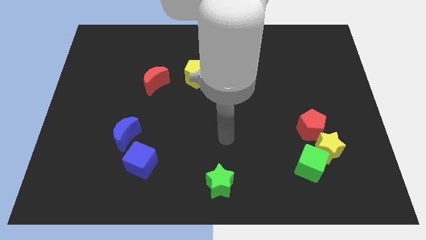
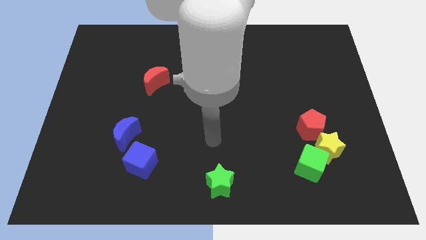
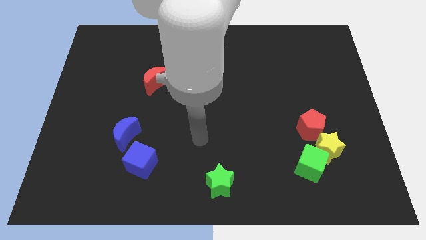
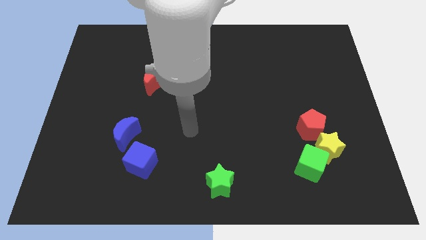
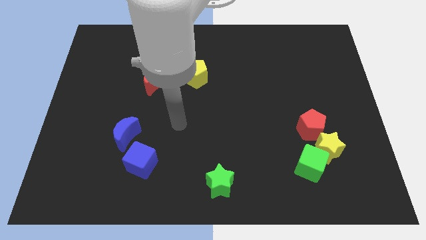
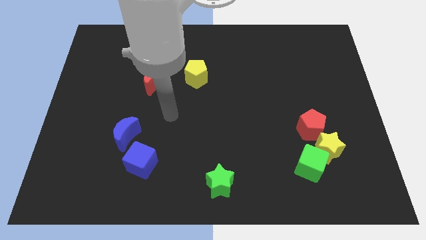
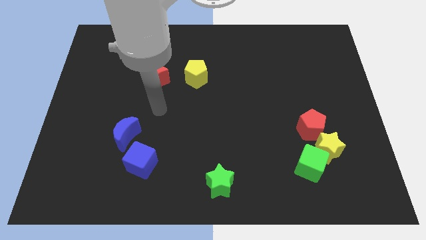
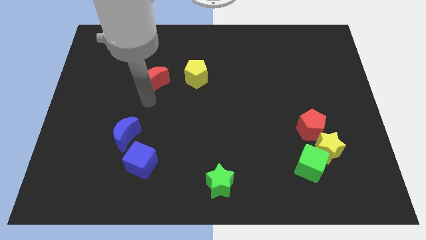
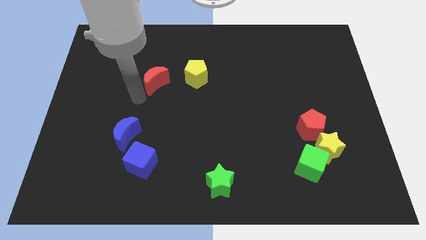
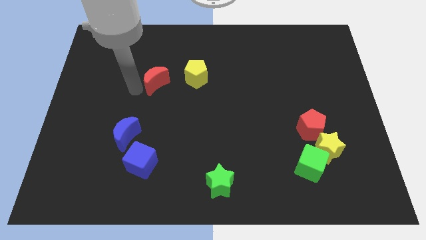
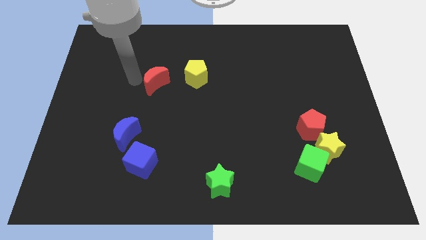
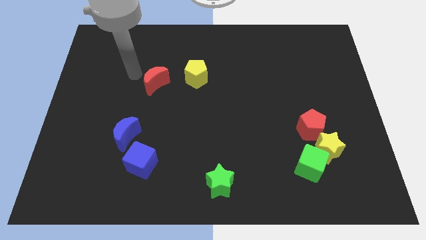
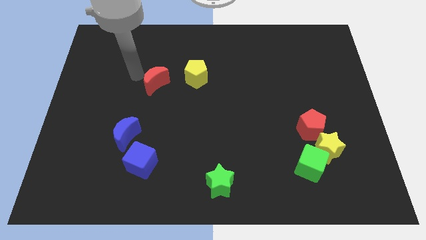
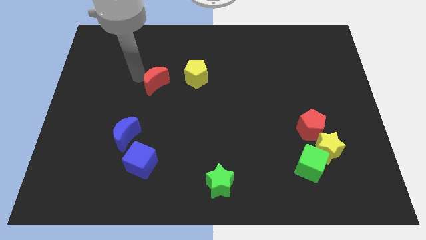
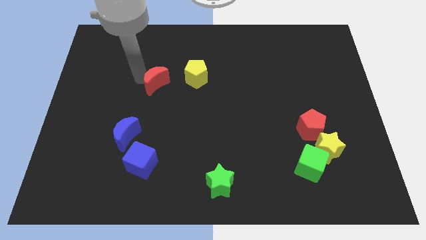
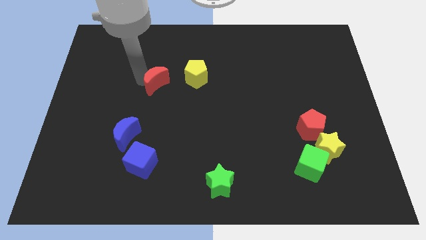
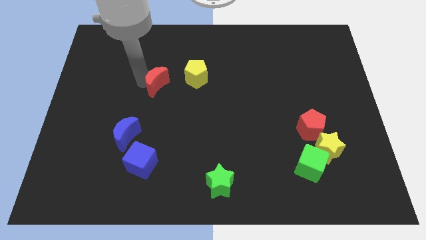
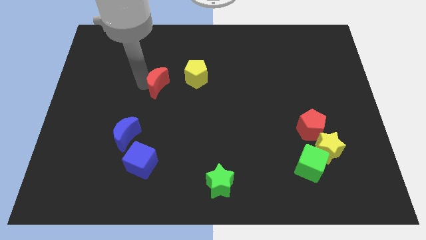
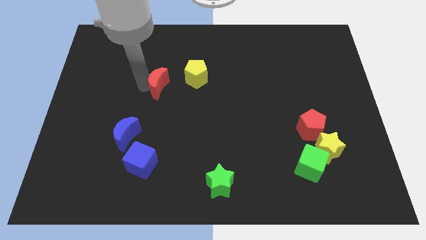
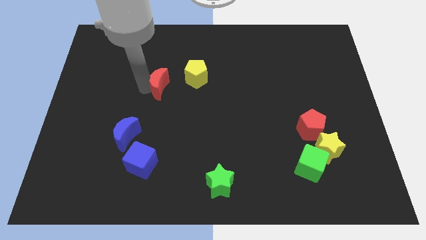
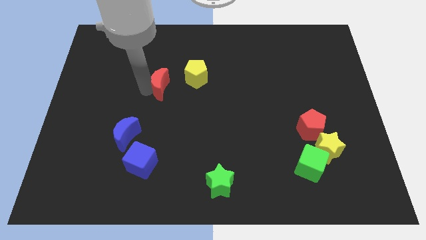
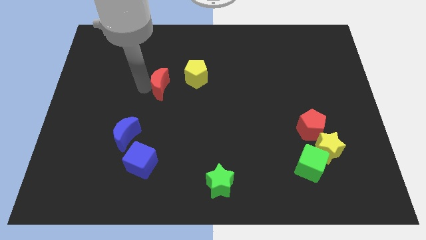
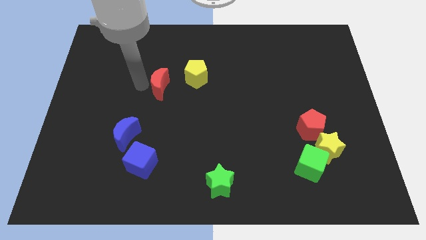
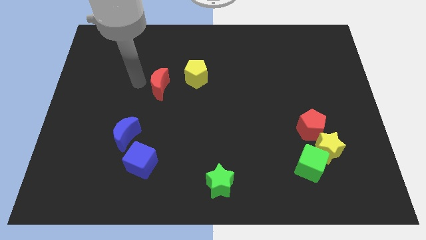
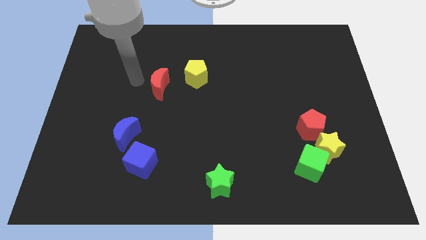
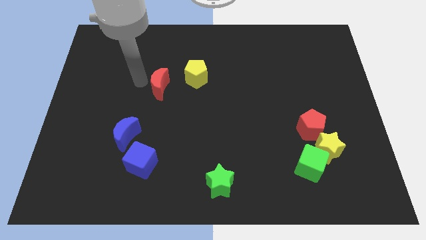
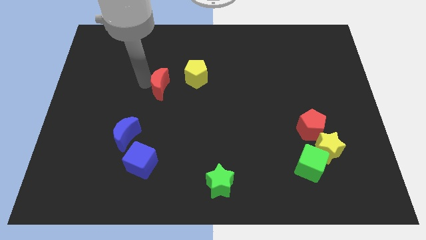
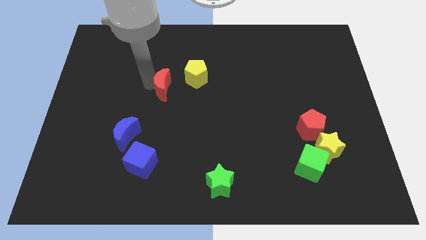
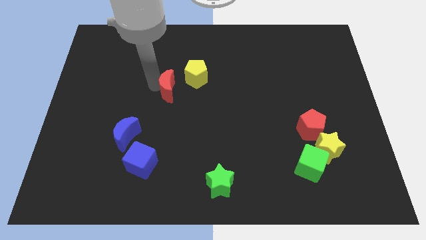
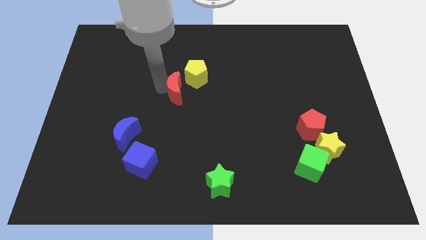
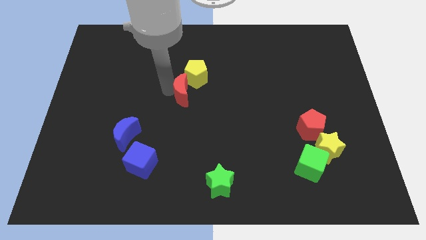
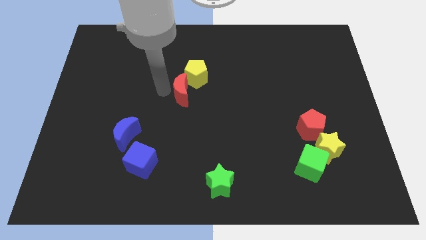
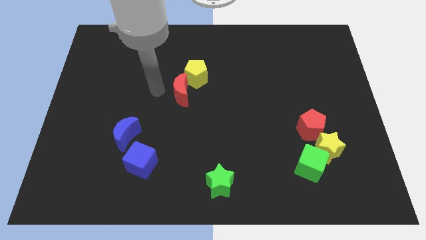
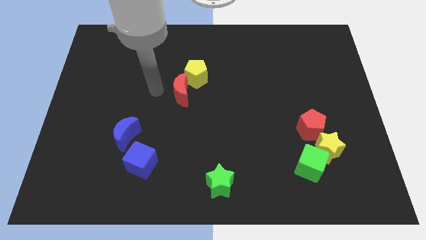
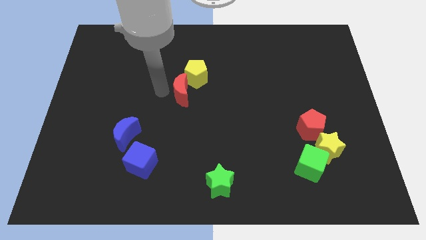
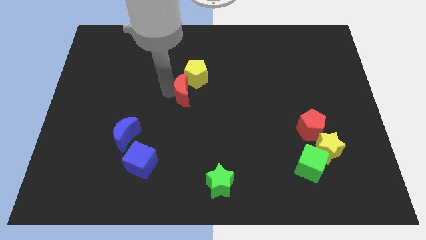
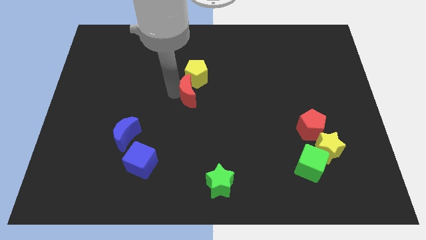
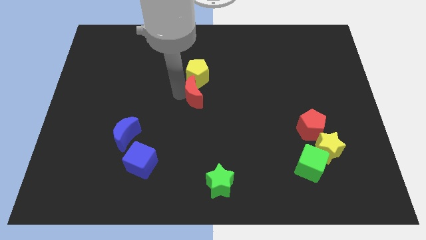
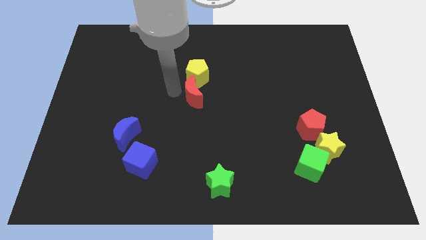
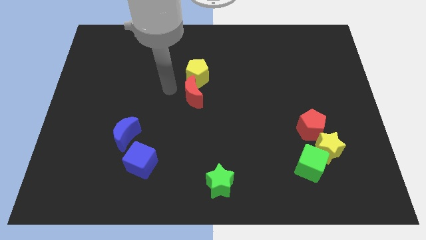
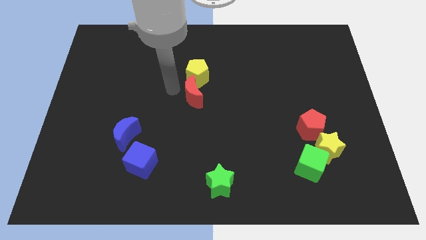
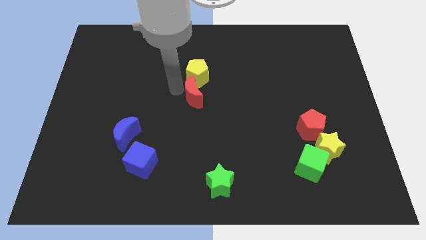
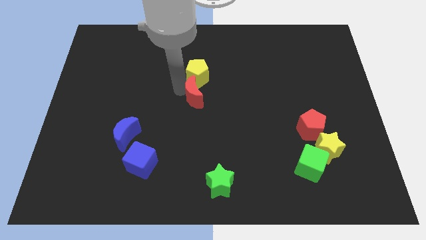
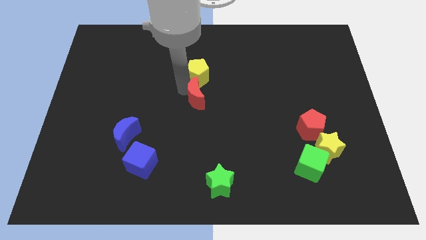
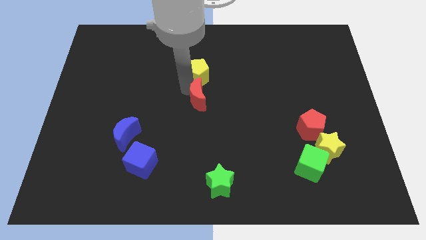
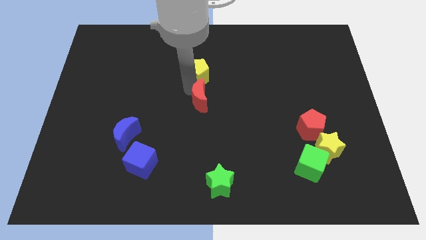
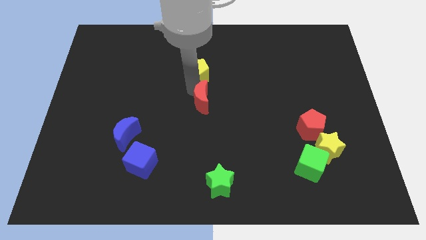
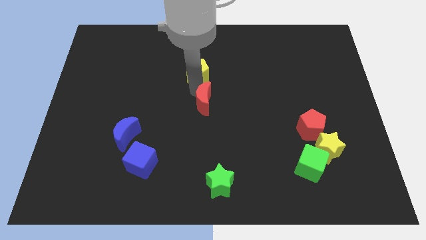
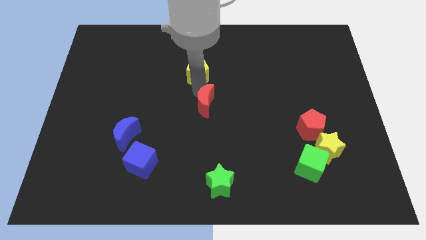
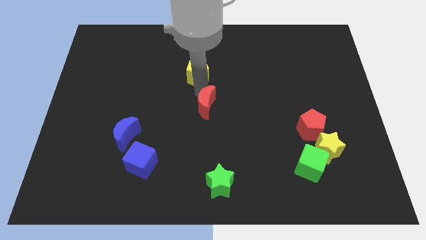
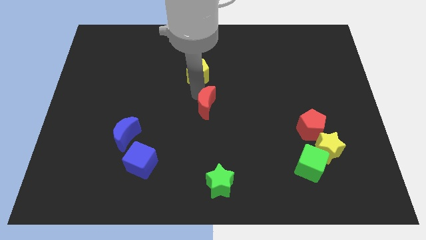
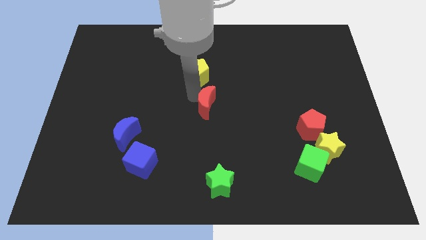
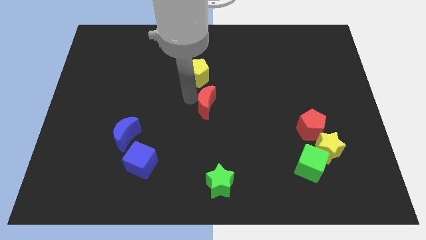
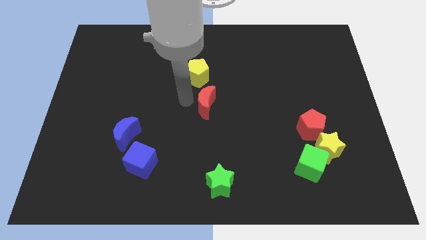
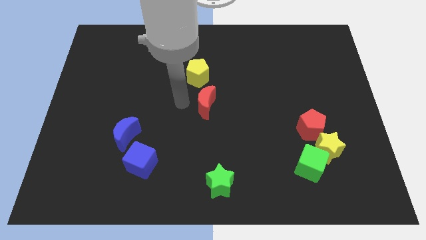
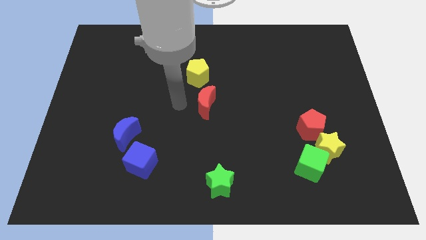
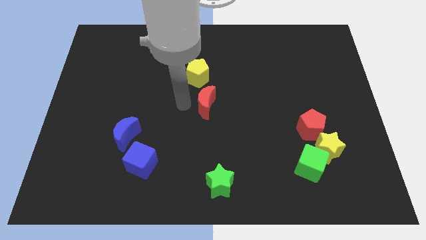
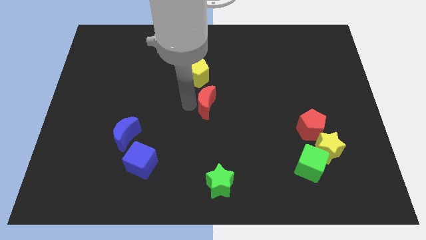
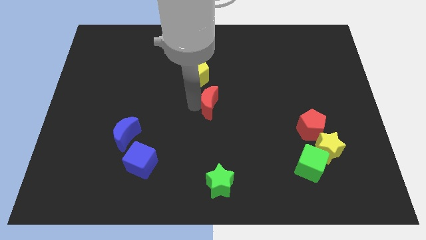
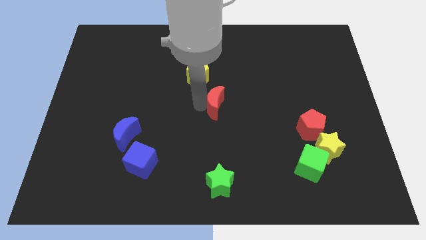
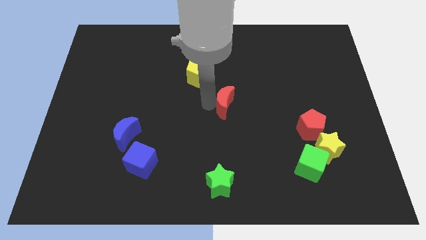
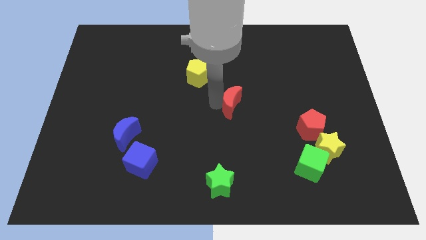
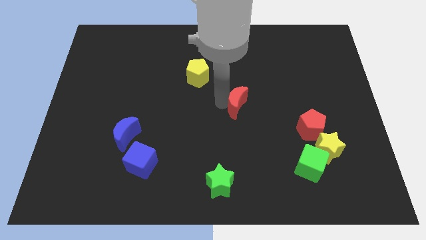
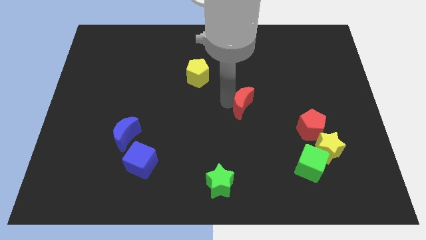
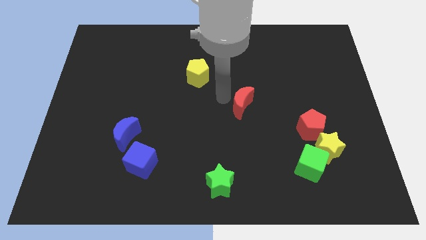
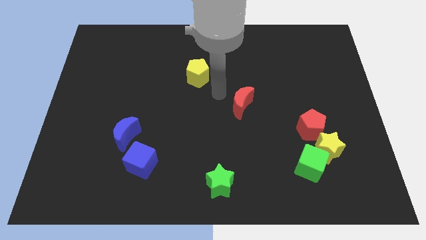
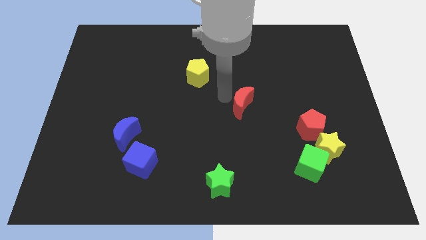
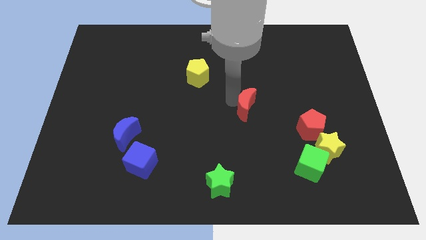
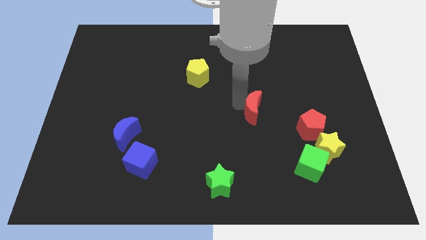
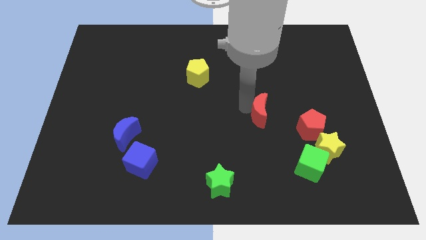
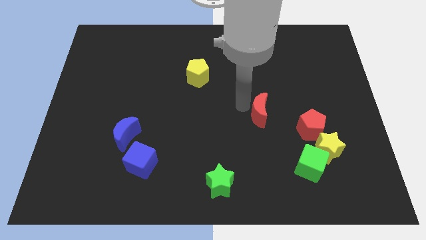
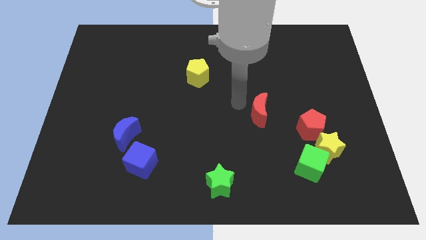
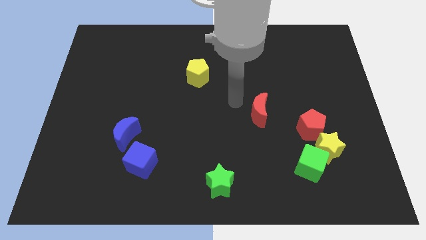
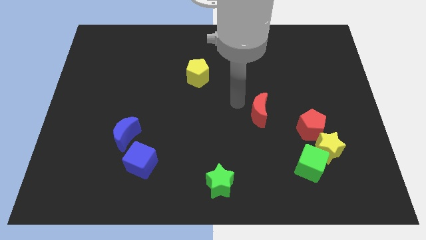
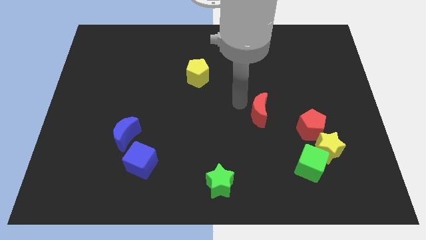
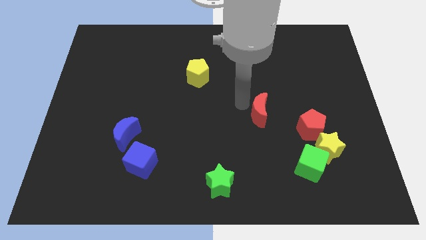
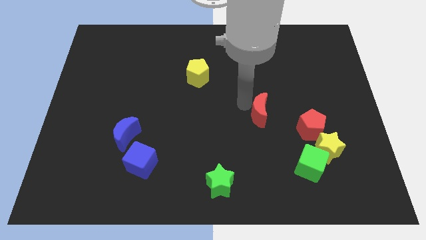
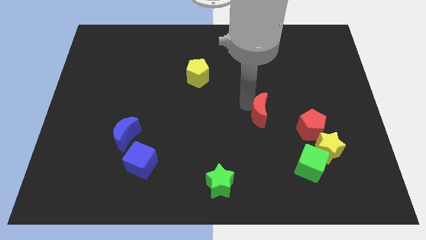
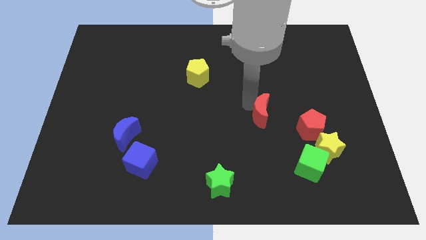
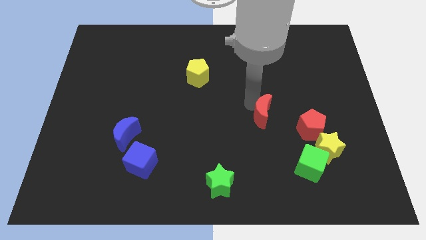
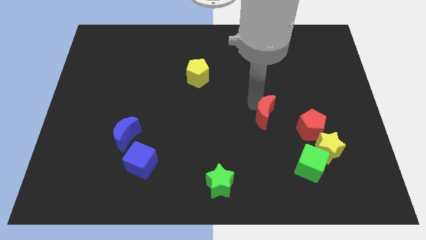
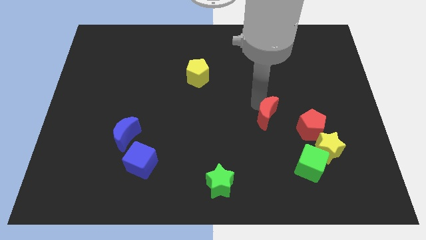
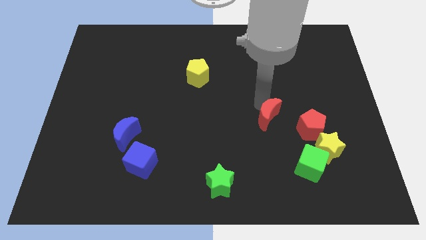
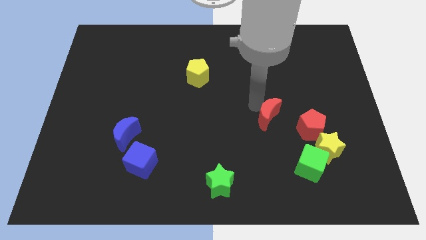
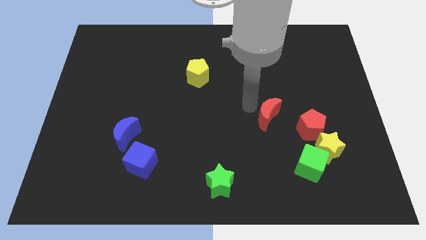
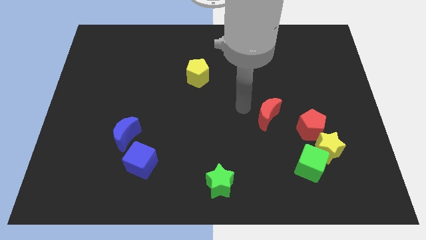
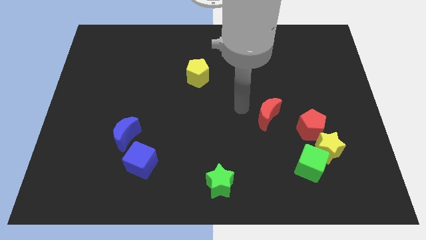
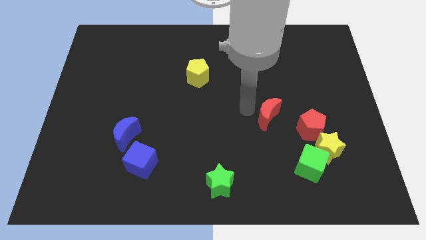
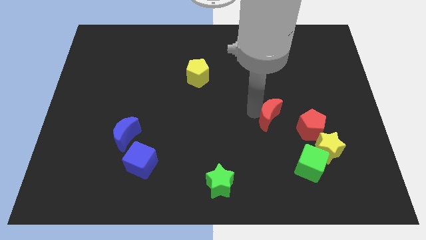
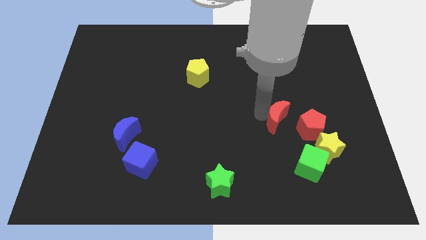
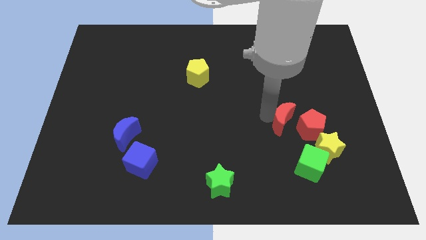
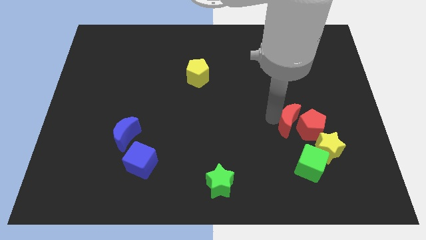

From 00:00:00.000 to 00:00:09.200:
move the red moon towards the red pentagon
